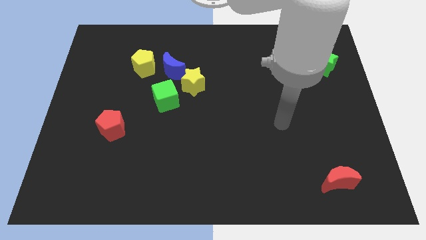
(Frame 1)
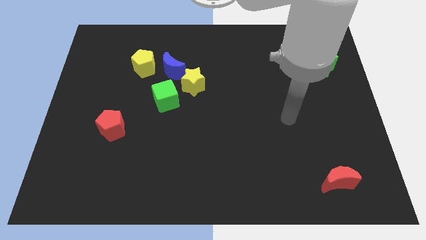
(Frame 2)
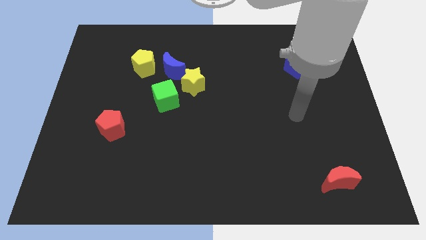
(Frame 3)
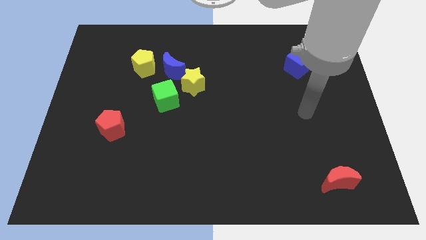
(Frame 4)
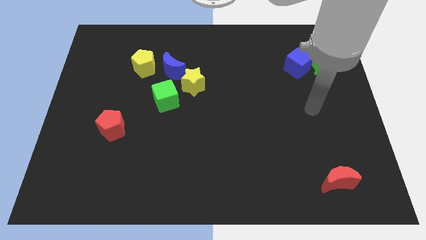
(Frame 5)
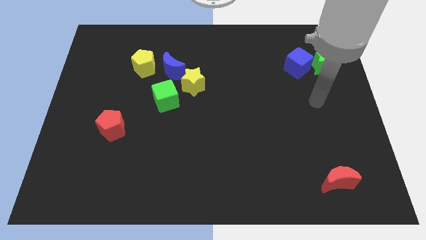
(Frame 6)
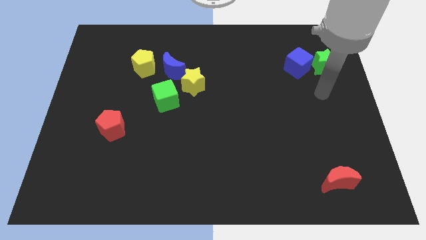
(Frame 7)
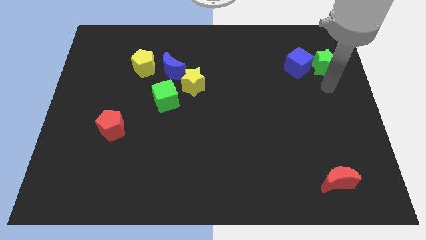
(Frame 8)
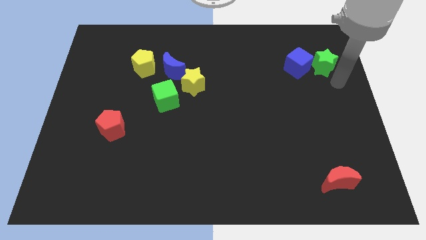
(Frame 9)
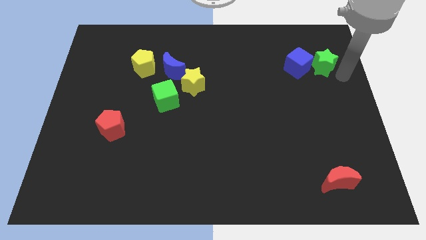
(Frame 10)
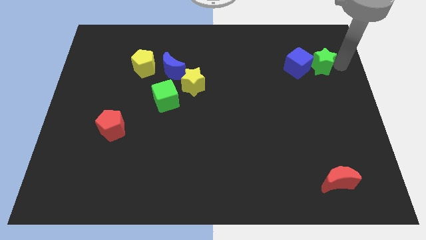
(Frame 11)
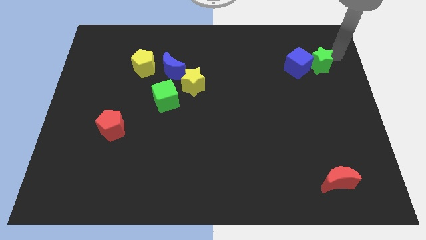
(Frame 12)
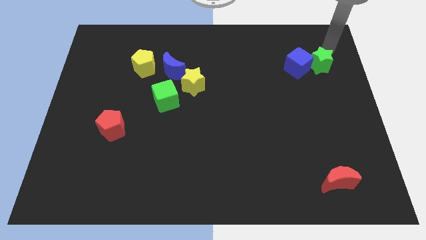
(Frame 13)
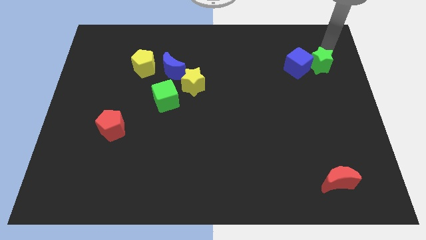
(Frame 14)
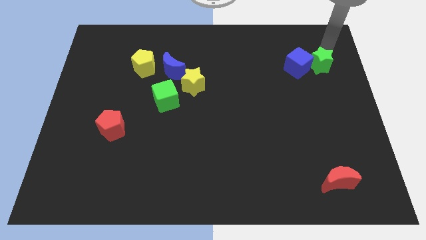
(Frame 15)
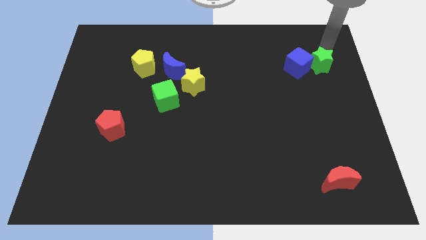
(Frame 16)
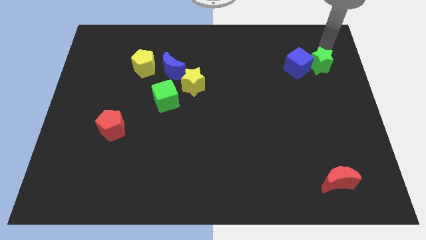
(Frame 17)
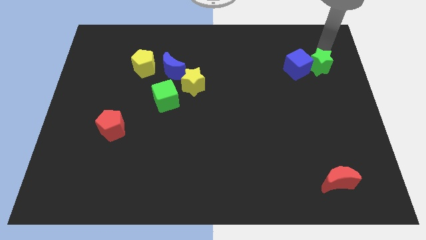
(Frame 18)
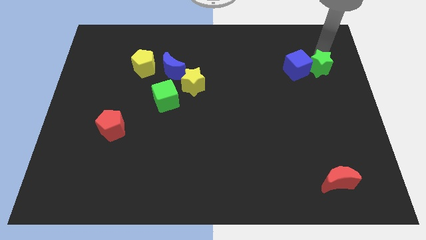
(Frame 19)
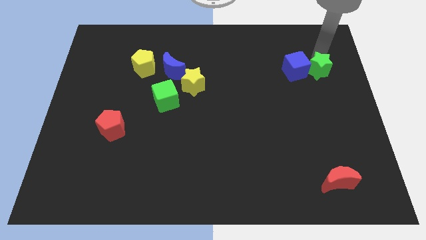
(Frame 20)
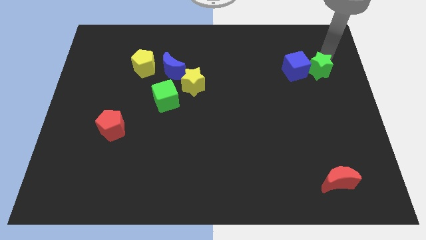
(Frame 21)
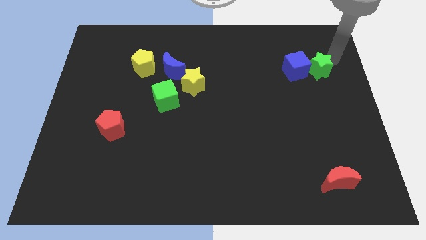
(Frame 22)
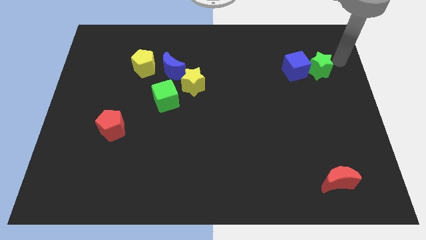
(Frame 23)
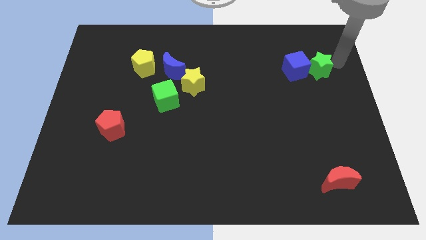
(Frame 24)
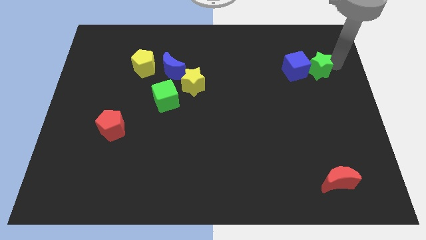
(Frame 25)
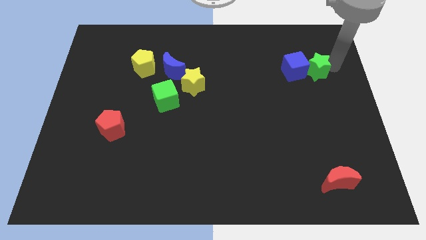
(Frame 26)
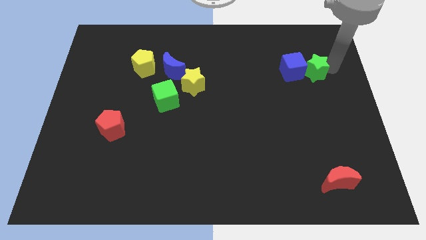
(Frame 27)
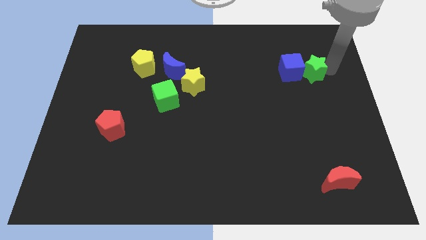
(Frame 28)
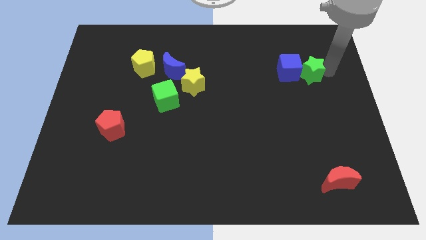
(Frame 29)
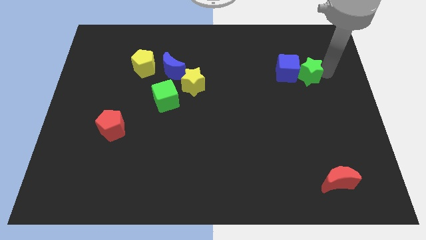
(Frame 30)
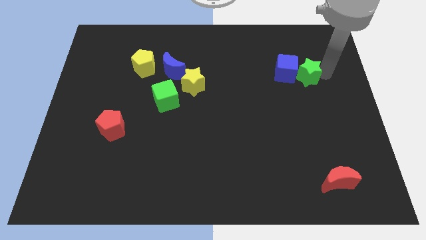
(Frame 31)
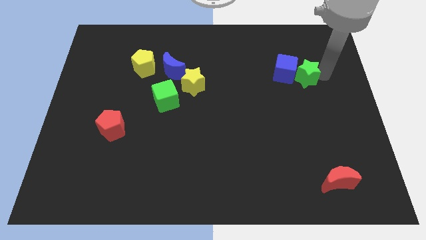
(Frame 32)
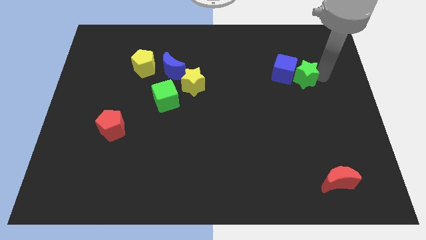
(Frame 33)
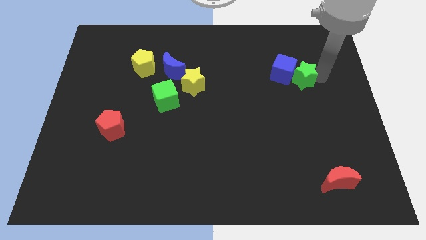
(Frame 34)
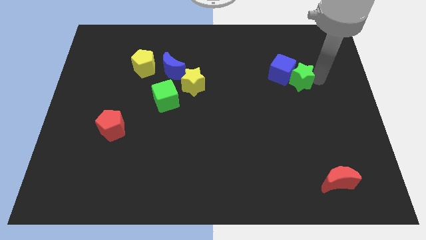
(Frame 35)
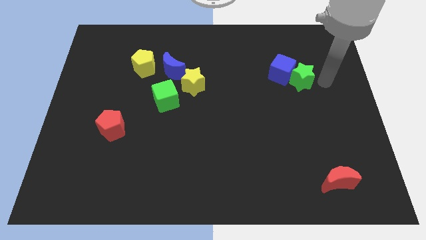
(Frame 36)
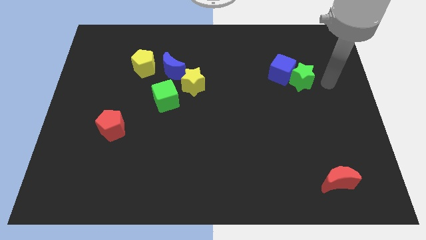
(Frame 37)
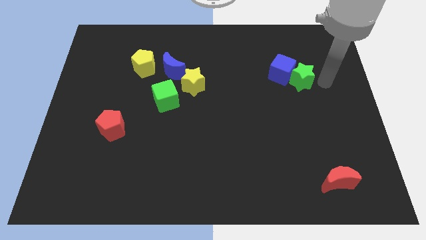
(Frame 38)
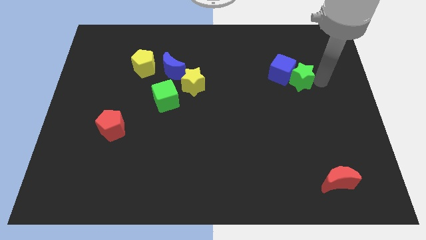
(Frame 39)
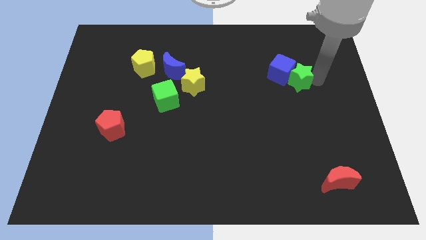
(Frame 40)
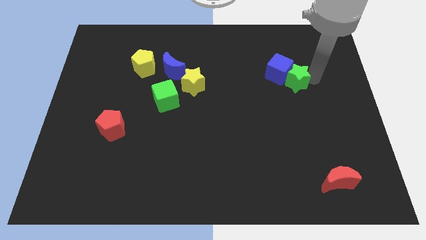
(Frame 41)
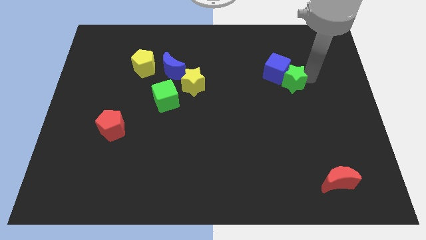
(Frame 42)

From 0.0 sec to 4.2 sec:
push the green star a little left

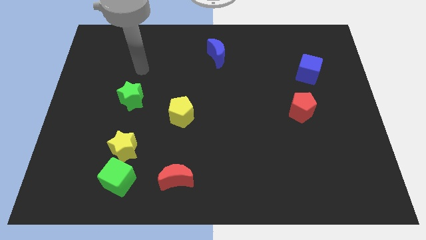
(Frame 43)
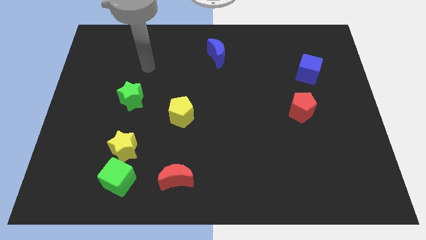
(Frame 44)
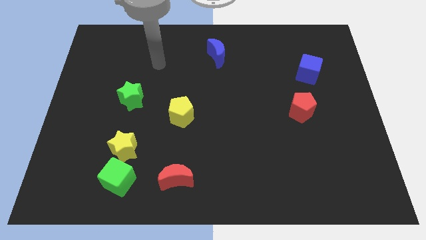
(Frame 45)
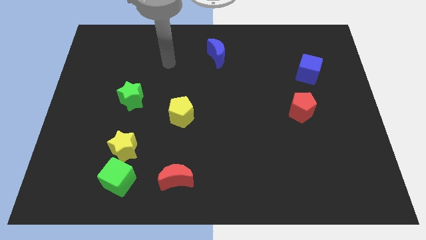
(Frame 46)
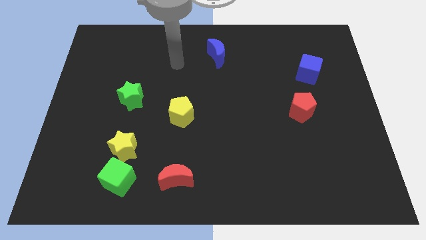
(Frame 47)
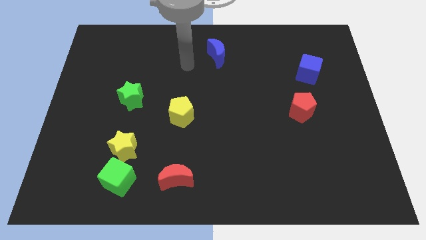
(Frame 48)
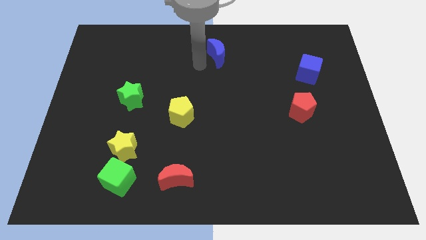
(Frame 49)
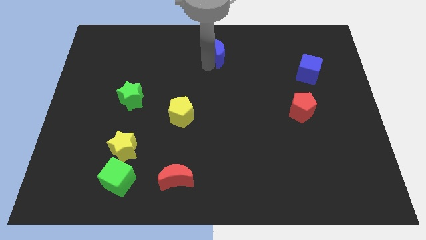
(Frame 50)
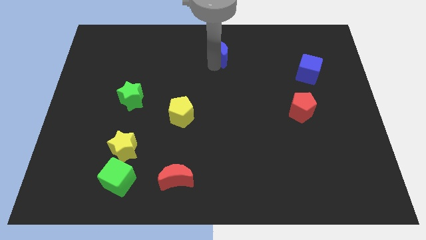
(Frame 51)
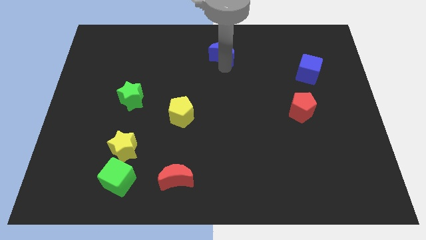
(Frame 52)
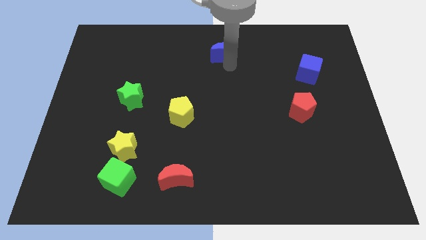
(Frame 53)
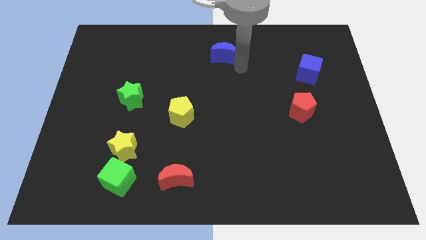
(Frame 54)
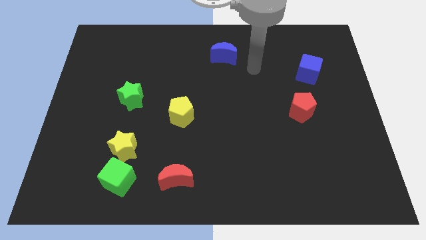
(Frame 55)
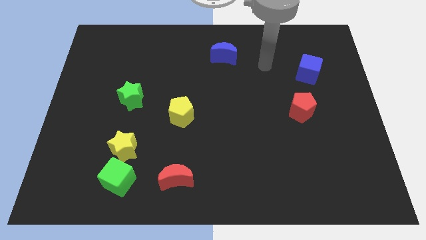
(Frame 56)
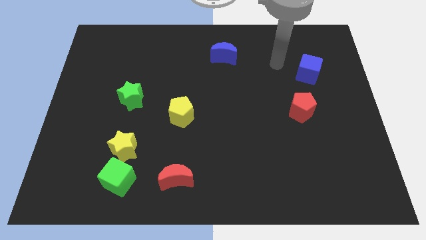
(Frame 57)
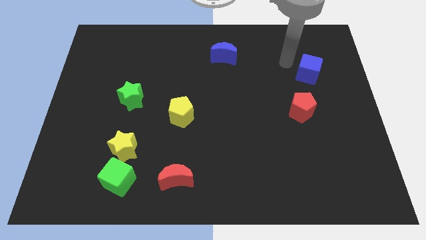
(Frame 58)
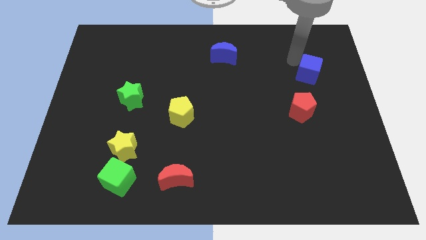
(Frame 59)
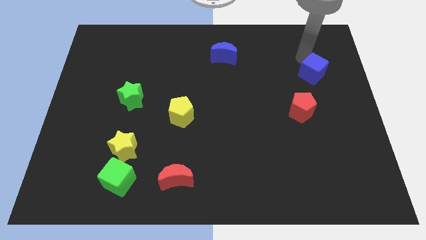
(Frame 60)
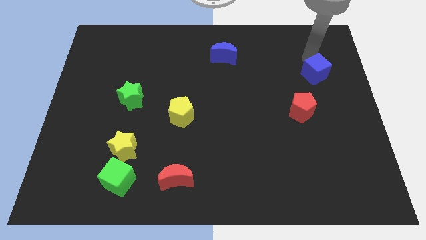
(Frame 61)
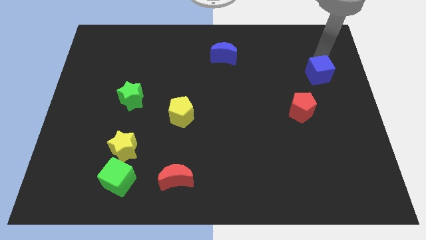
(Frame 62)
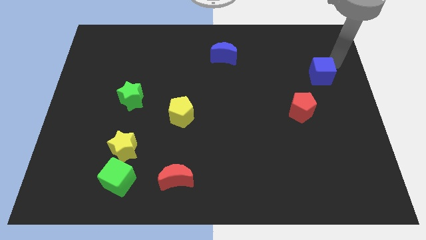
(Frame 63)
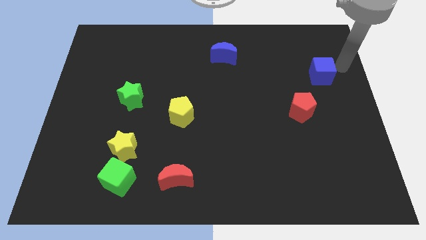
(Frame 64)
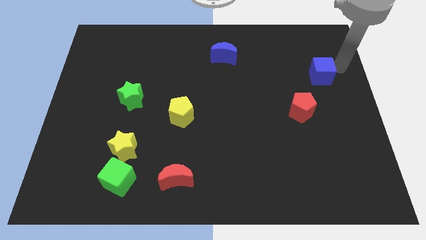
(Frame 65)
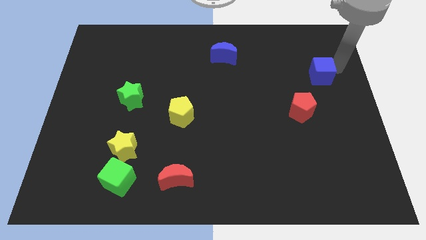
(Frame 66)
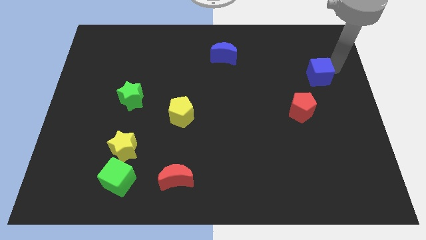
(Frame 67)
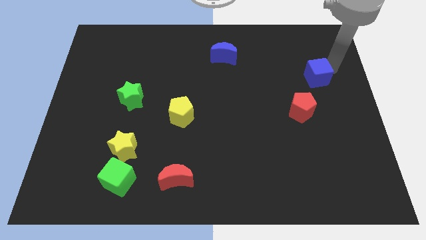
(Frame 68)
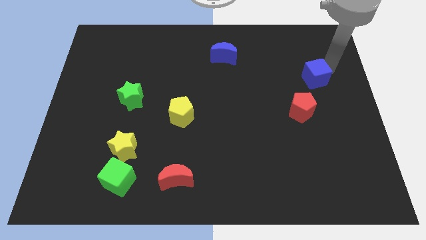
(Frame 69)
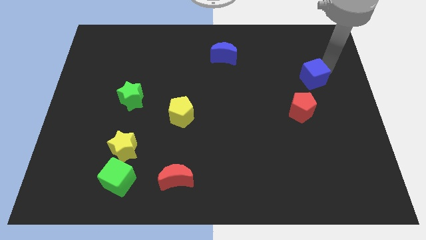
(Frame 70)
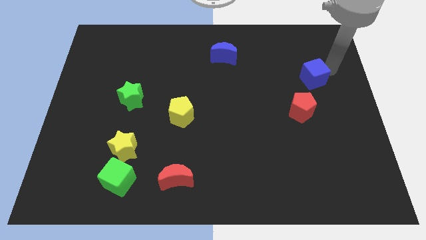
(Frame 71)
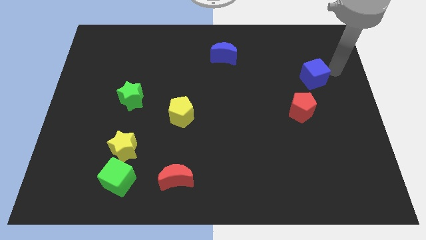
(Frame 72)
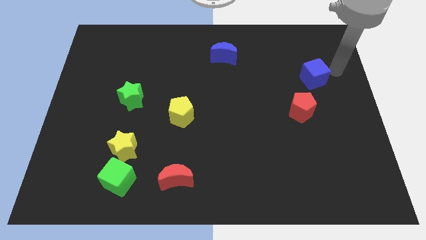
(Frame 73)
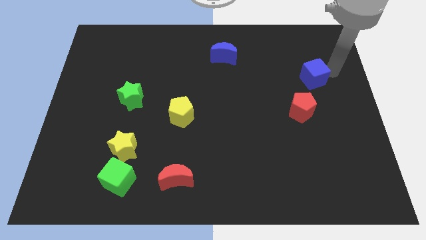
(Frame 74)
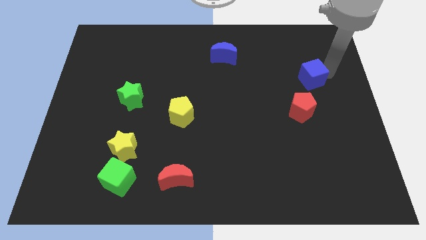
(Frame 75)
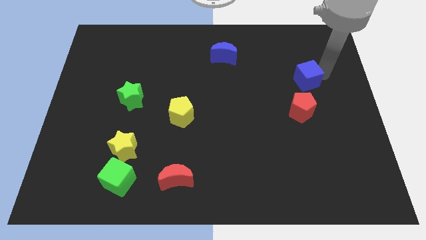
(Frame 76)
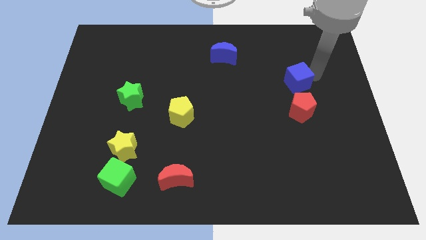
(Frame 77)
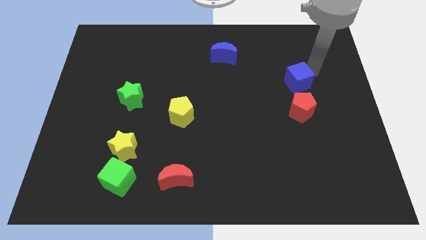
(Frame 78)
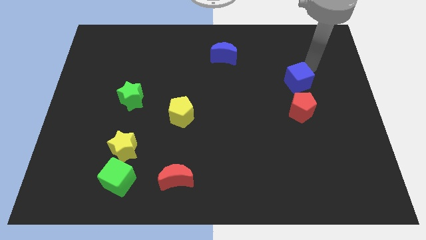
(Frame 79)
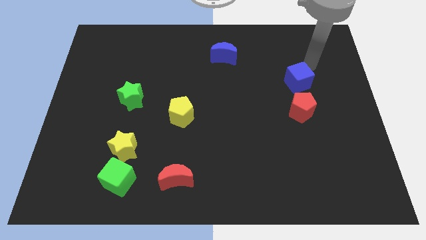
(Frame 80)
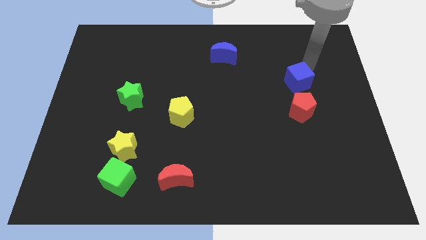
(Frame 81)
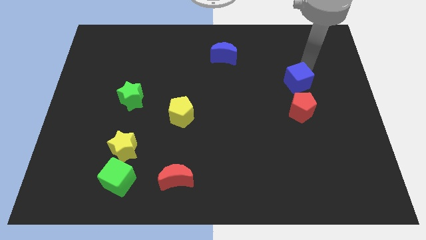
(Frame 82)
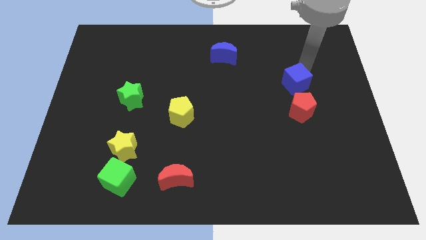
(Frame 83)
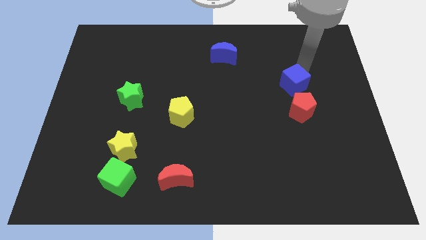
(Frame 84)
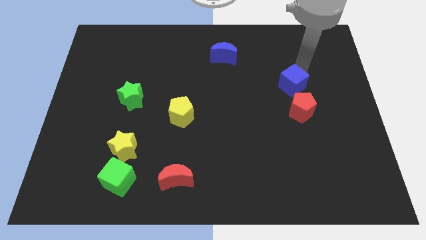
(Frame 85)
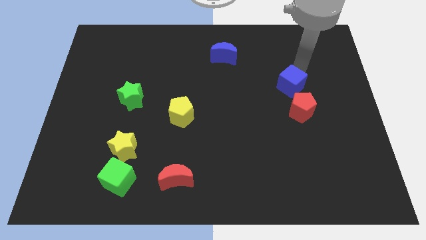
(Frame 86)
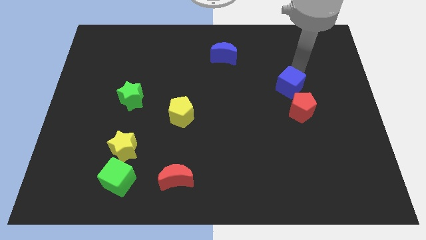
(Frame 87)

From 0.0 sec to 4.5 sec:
move the blue cube a bit down and then to the left
